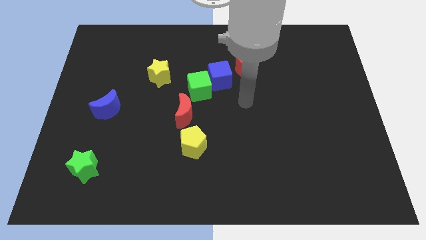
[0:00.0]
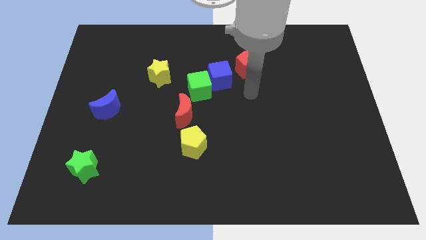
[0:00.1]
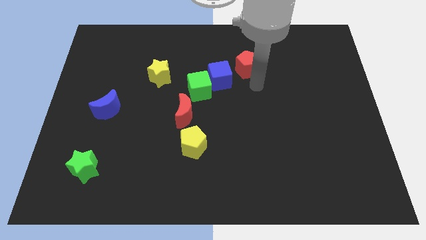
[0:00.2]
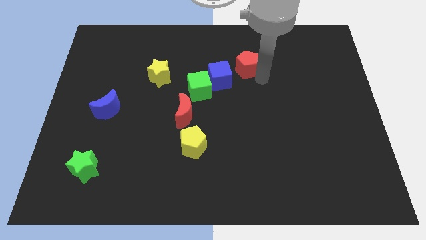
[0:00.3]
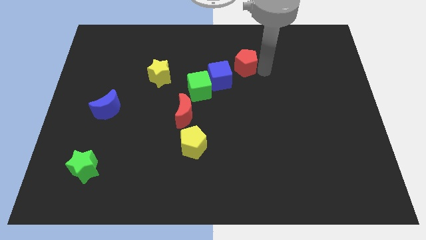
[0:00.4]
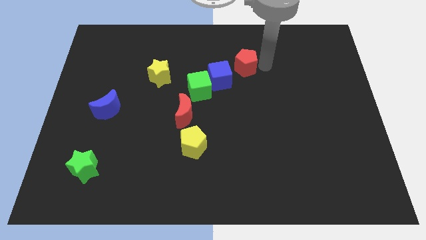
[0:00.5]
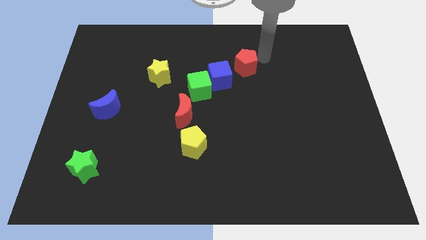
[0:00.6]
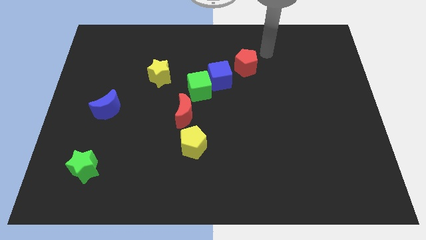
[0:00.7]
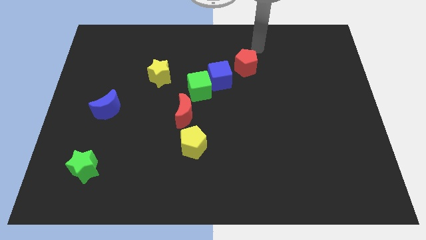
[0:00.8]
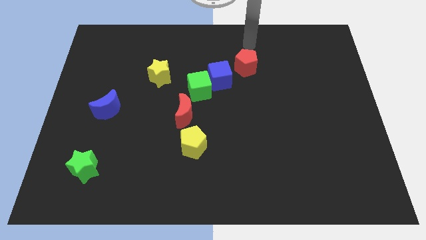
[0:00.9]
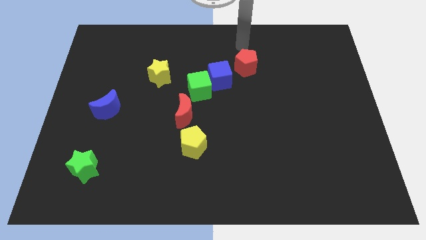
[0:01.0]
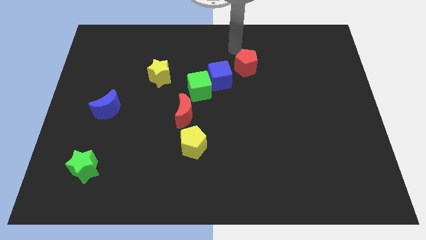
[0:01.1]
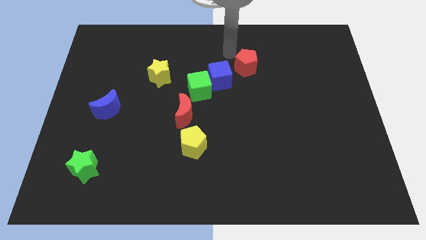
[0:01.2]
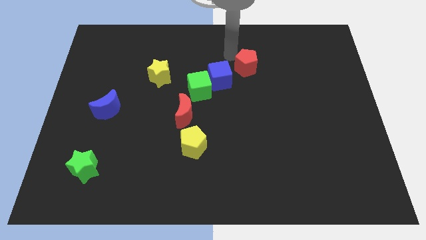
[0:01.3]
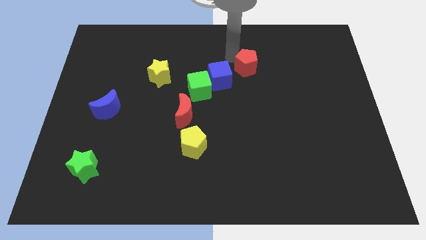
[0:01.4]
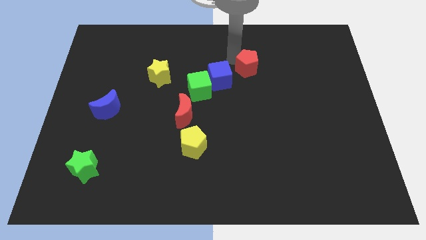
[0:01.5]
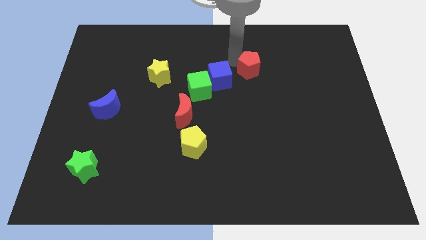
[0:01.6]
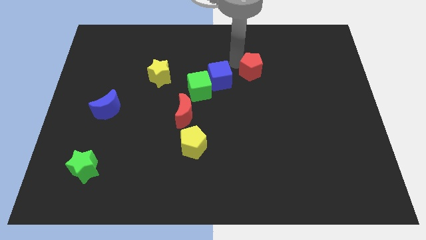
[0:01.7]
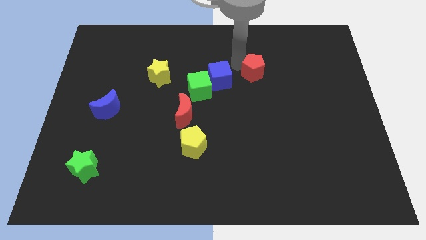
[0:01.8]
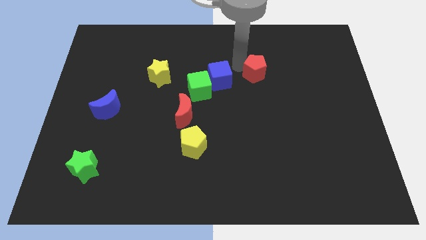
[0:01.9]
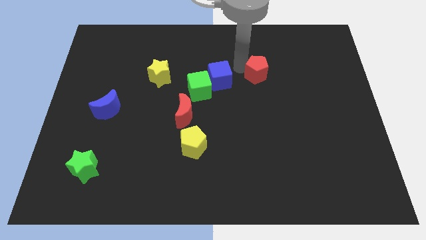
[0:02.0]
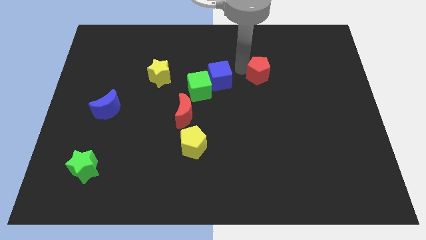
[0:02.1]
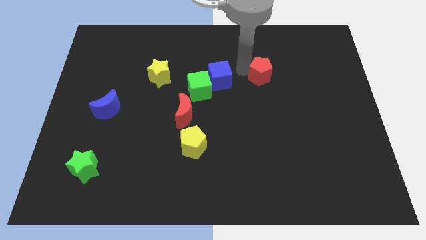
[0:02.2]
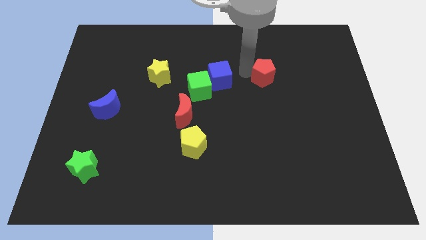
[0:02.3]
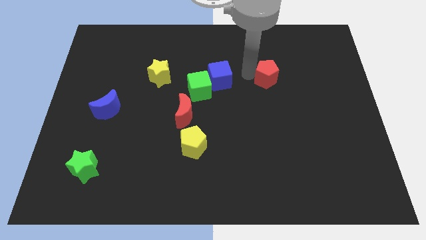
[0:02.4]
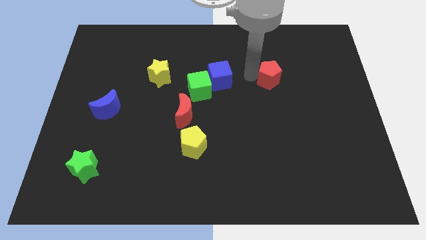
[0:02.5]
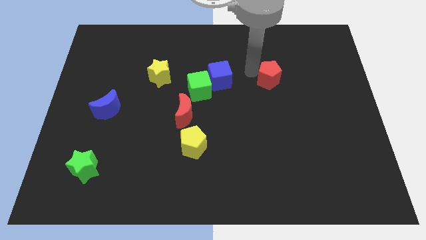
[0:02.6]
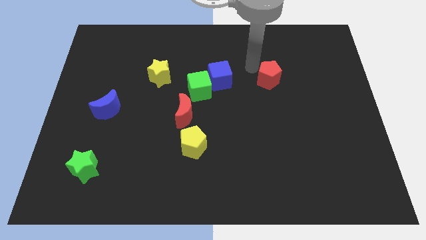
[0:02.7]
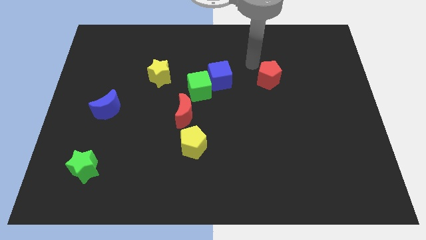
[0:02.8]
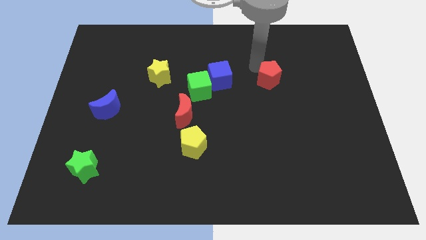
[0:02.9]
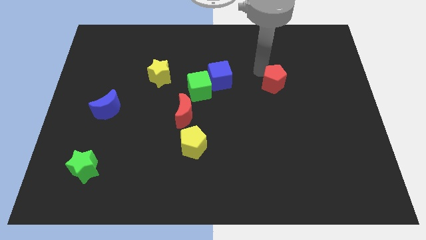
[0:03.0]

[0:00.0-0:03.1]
push the red pentagon slightly down and to the right diagonally

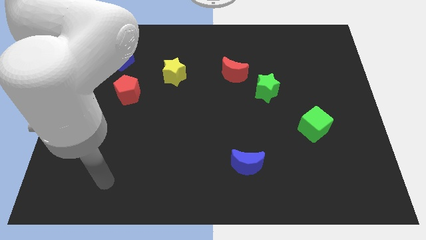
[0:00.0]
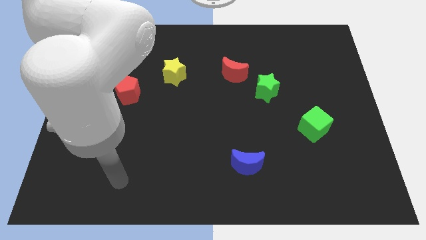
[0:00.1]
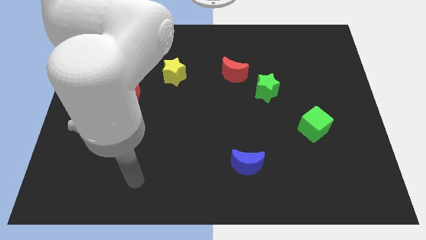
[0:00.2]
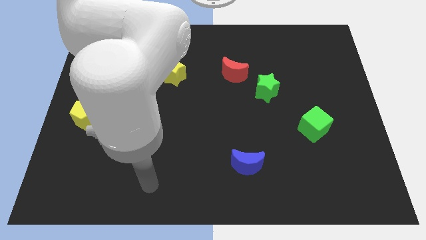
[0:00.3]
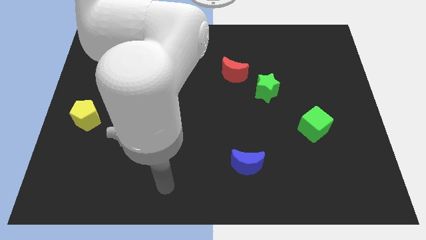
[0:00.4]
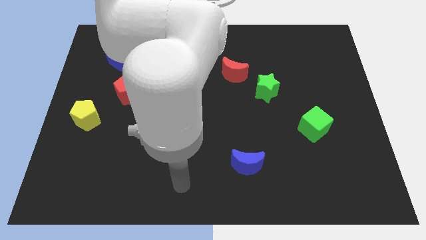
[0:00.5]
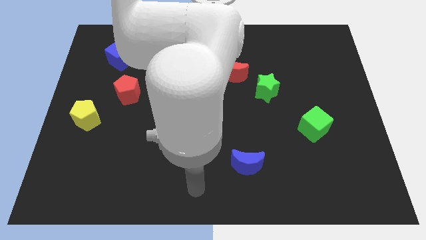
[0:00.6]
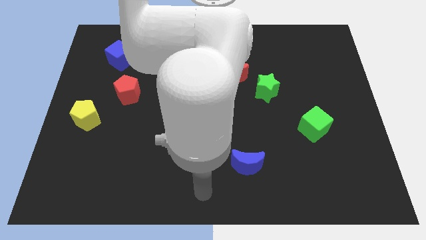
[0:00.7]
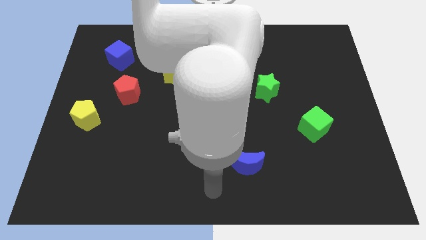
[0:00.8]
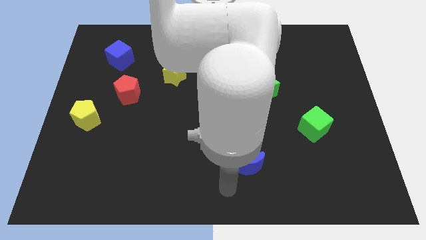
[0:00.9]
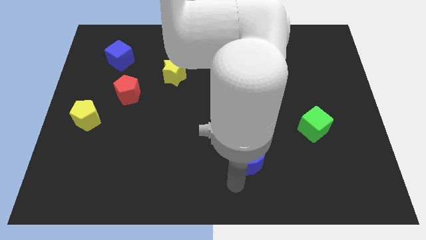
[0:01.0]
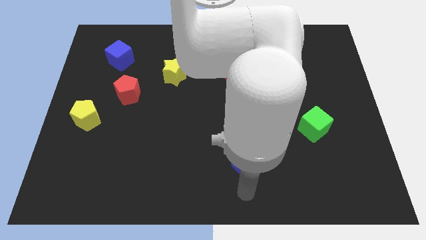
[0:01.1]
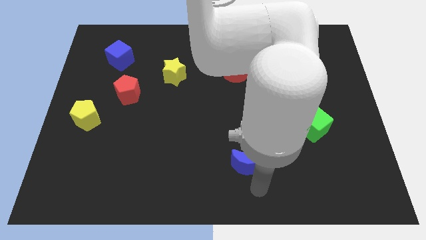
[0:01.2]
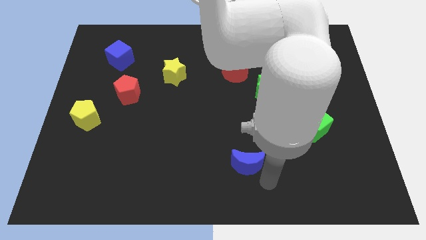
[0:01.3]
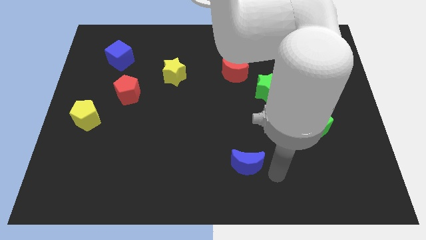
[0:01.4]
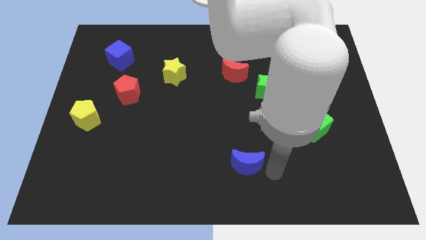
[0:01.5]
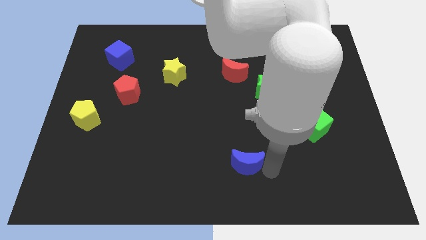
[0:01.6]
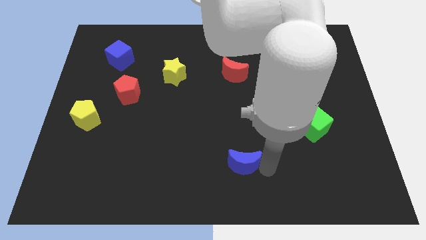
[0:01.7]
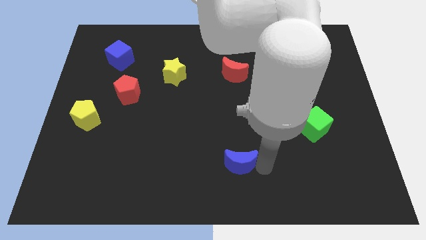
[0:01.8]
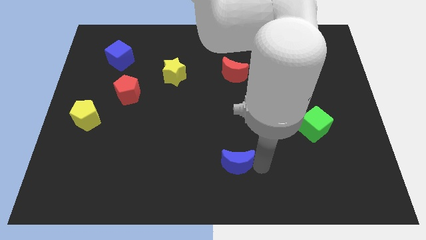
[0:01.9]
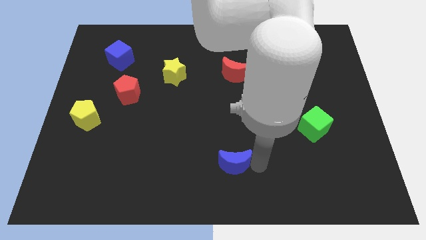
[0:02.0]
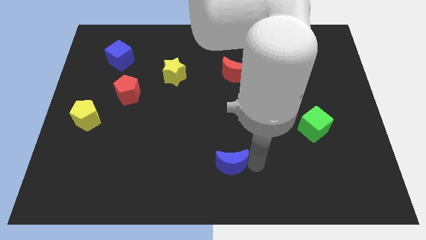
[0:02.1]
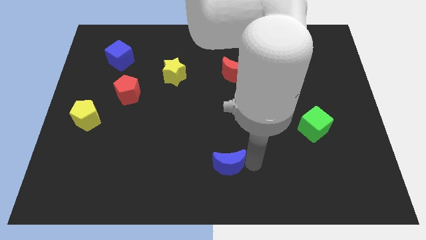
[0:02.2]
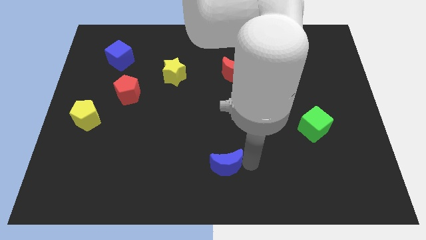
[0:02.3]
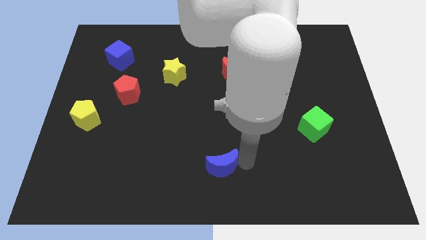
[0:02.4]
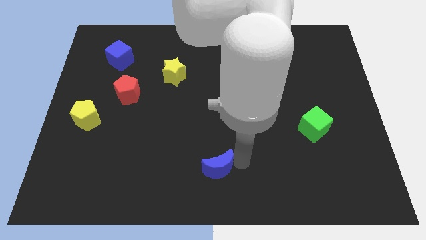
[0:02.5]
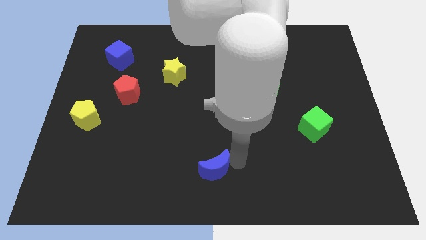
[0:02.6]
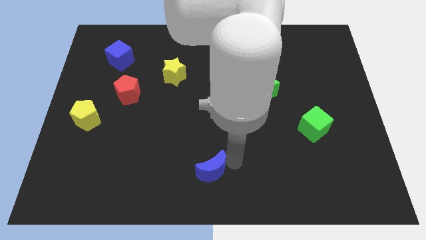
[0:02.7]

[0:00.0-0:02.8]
slightly push the blue moon to the left

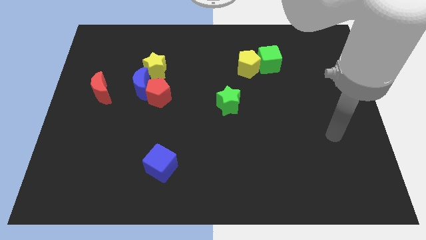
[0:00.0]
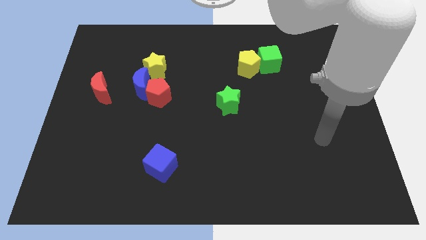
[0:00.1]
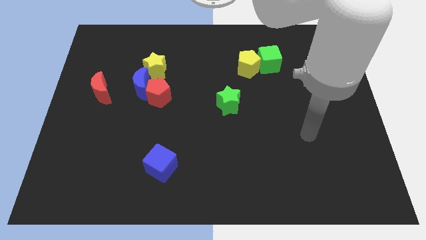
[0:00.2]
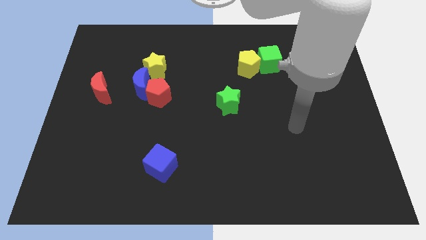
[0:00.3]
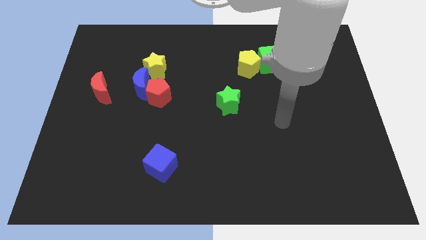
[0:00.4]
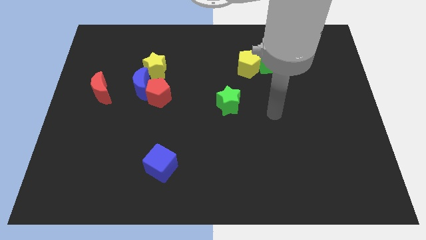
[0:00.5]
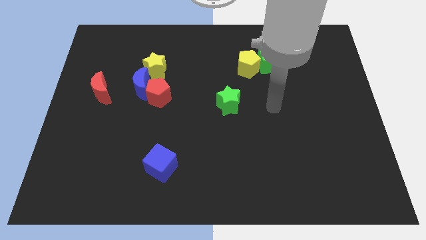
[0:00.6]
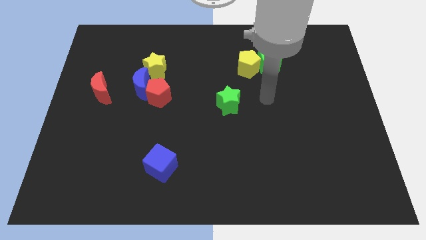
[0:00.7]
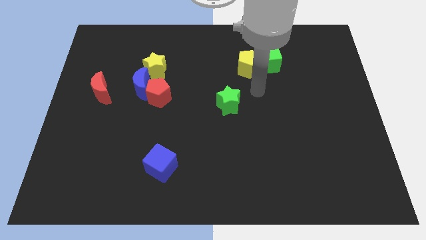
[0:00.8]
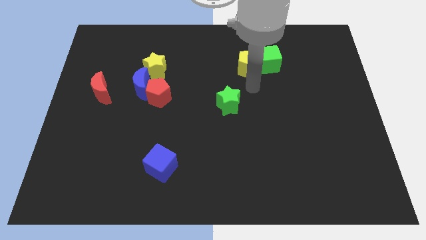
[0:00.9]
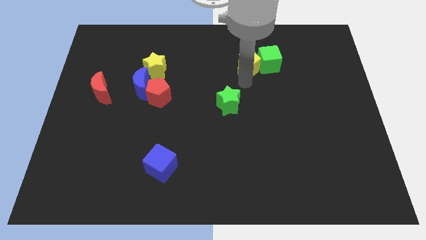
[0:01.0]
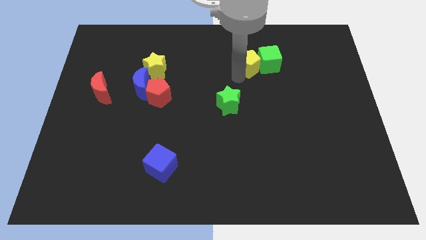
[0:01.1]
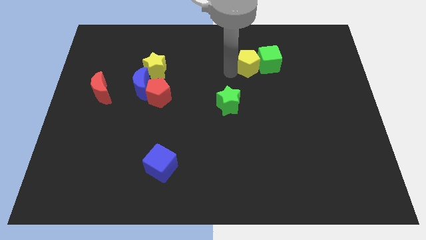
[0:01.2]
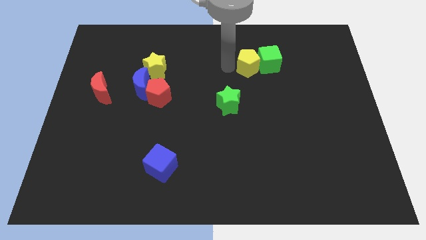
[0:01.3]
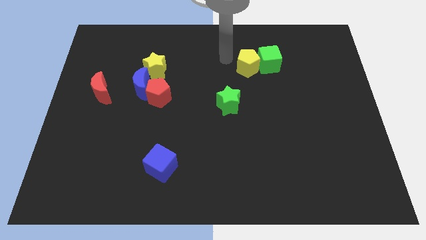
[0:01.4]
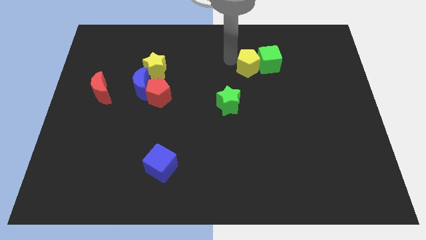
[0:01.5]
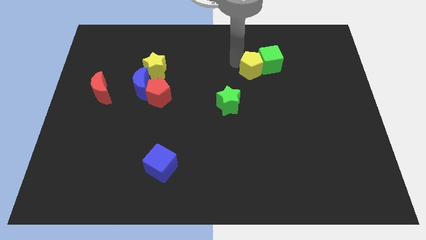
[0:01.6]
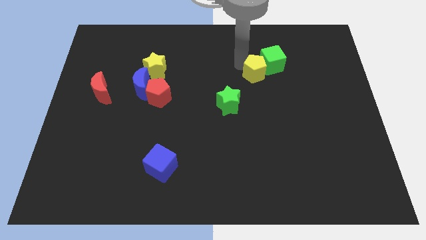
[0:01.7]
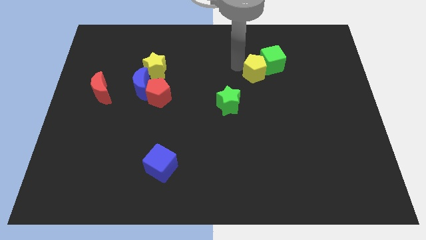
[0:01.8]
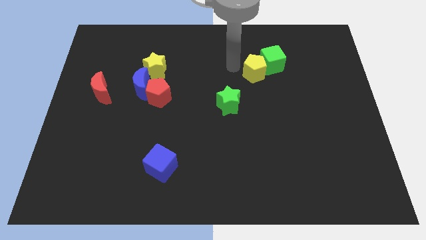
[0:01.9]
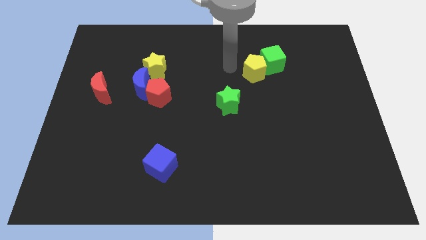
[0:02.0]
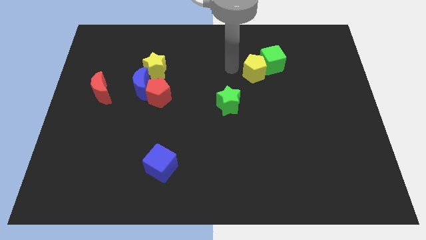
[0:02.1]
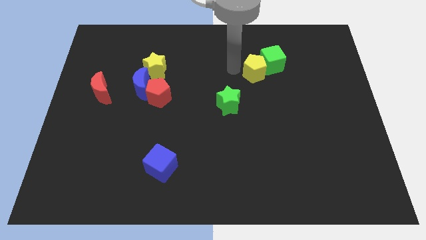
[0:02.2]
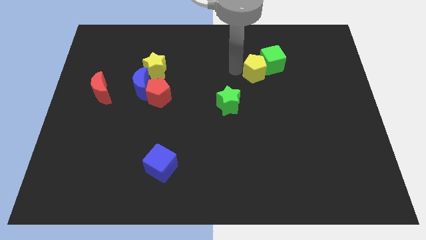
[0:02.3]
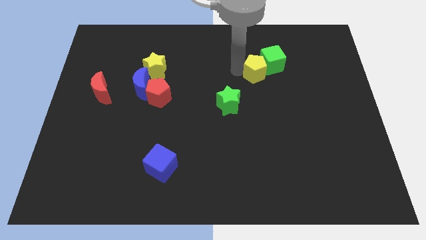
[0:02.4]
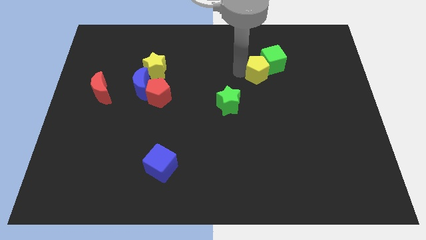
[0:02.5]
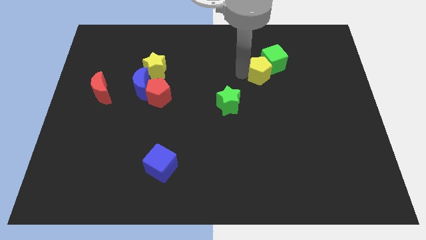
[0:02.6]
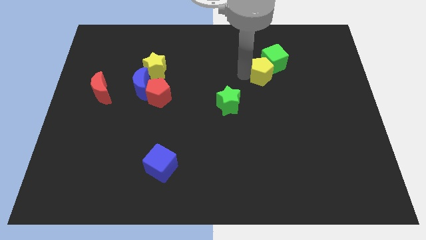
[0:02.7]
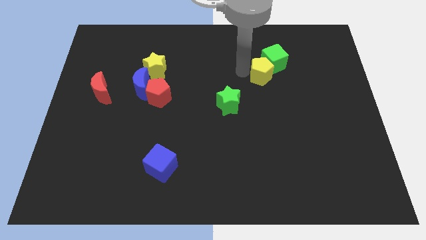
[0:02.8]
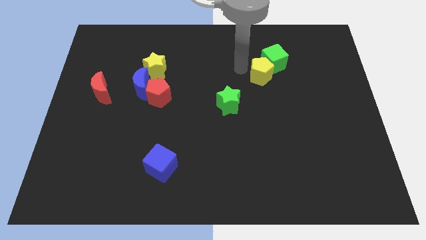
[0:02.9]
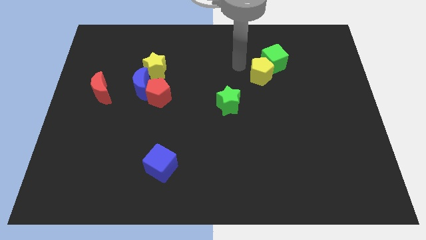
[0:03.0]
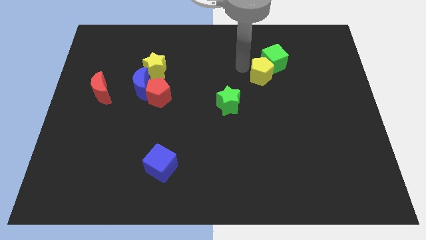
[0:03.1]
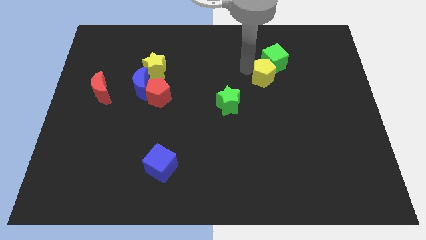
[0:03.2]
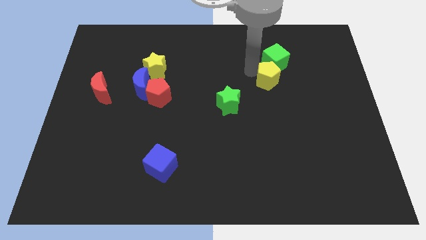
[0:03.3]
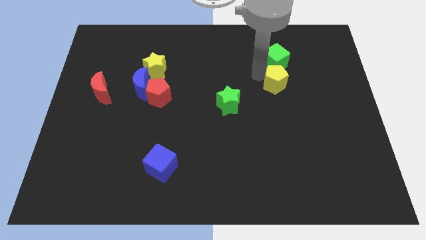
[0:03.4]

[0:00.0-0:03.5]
slightly push the yellow pentagon downwards and to the right diagonally
